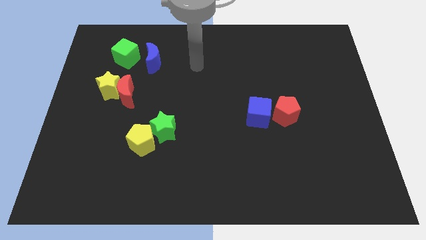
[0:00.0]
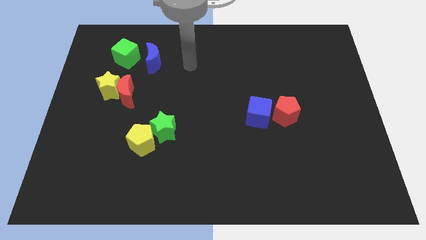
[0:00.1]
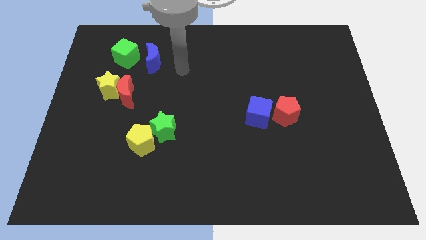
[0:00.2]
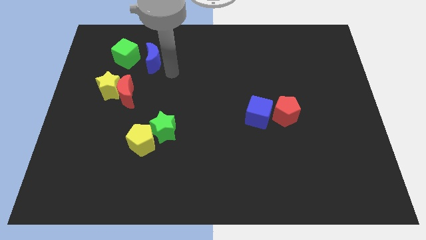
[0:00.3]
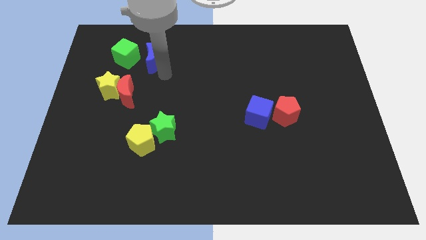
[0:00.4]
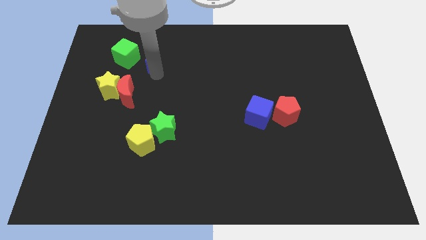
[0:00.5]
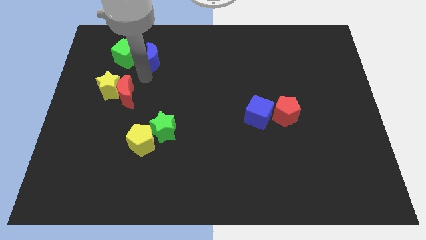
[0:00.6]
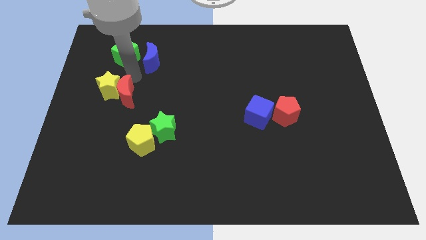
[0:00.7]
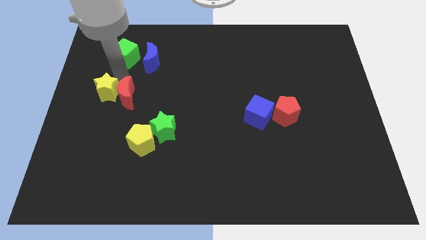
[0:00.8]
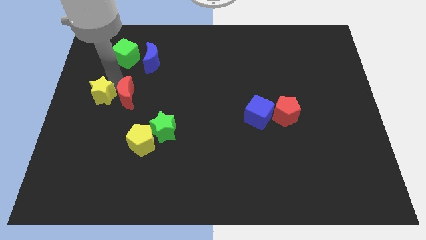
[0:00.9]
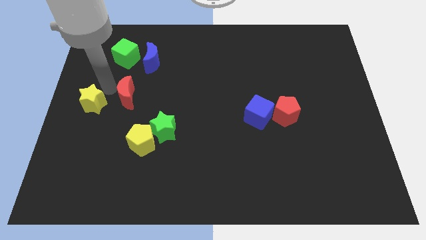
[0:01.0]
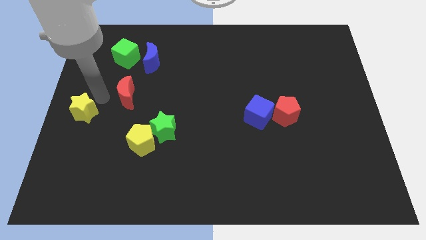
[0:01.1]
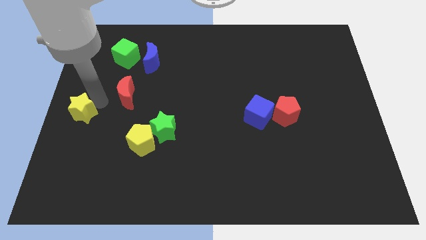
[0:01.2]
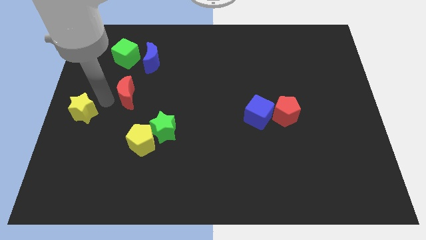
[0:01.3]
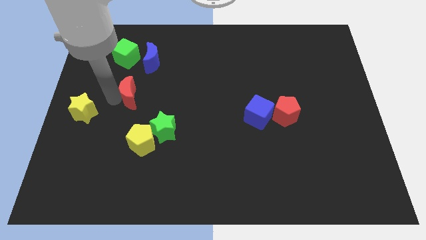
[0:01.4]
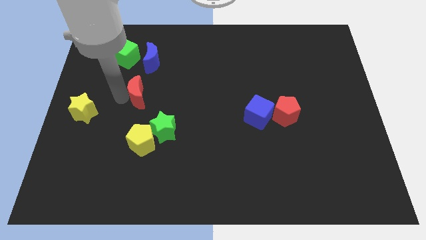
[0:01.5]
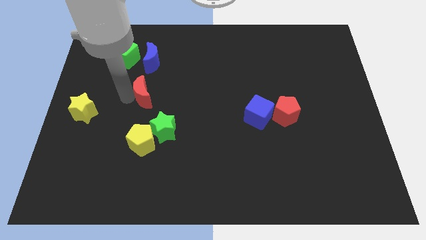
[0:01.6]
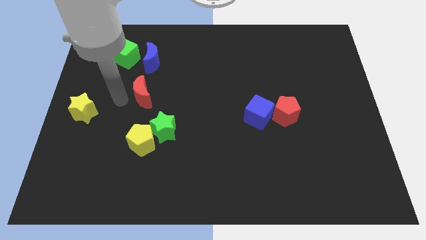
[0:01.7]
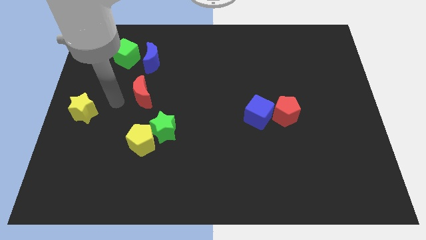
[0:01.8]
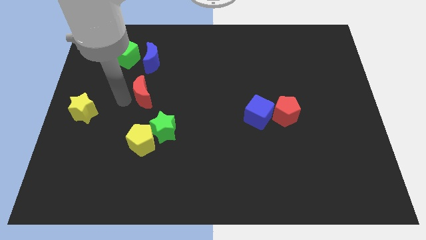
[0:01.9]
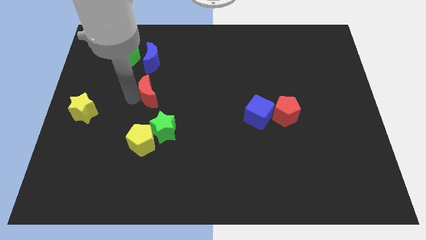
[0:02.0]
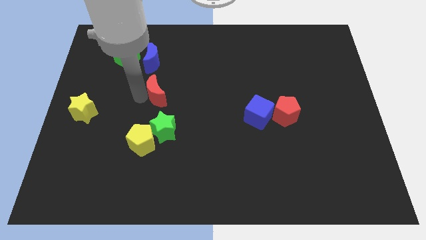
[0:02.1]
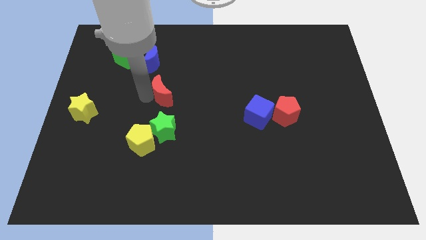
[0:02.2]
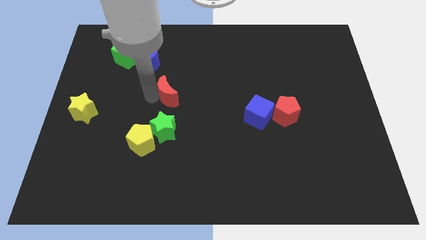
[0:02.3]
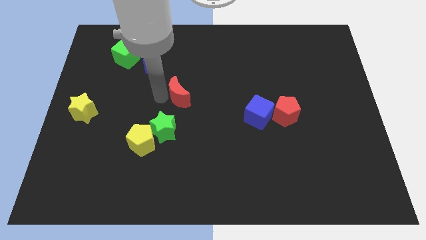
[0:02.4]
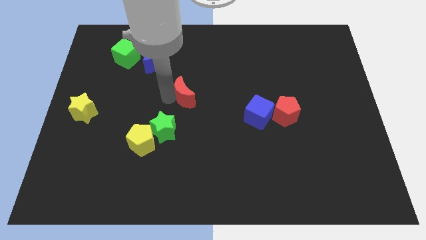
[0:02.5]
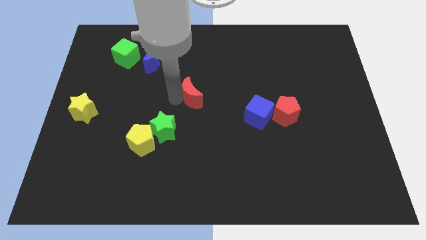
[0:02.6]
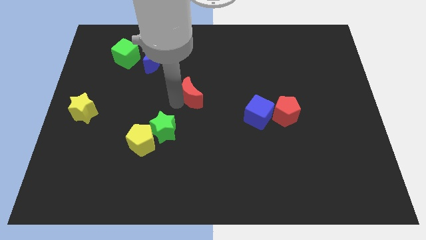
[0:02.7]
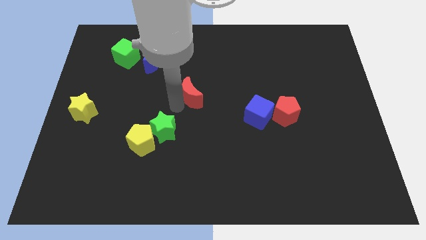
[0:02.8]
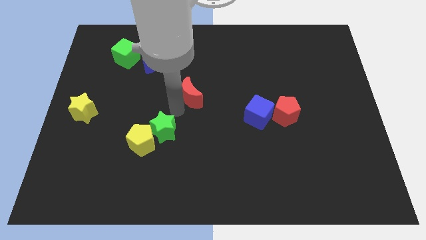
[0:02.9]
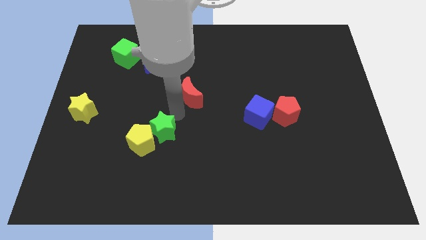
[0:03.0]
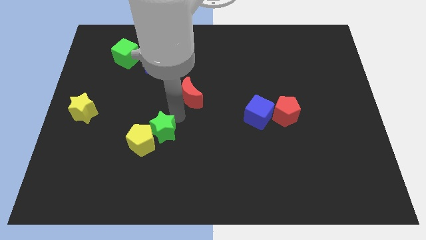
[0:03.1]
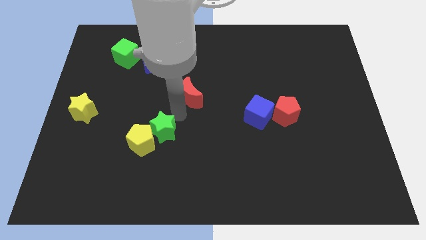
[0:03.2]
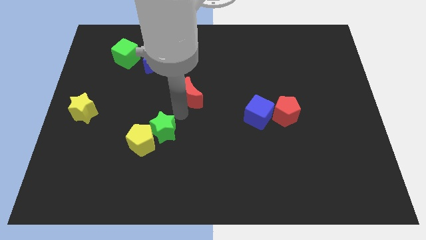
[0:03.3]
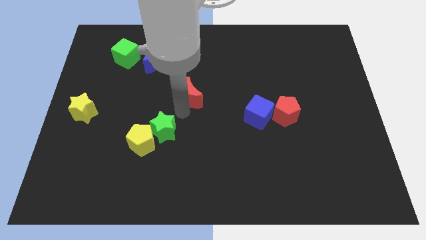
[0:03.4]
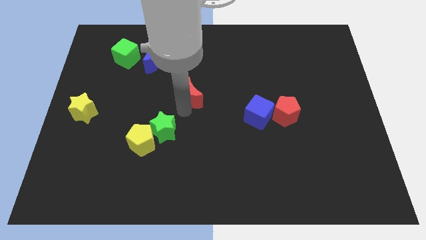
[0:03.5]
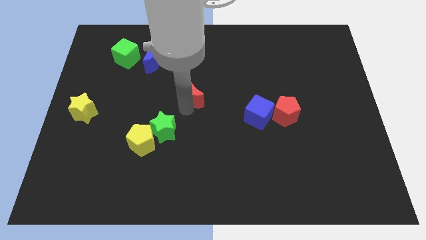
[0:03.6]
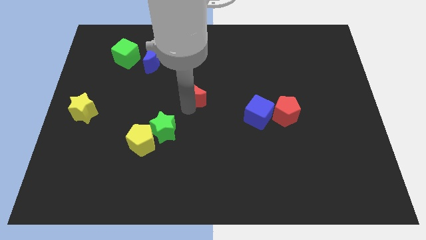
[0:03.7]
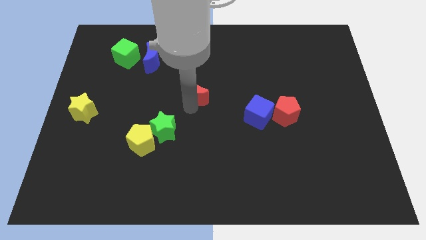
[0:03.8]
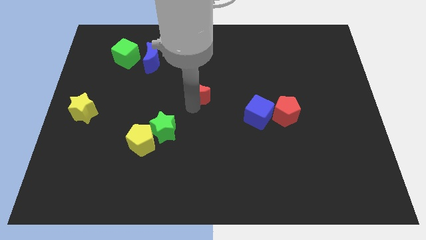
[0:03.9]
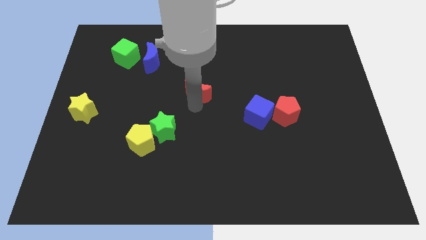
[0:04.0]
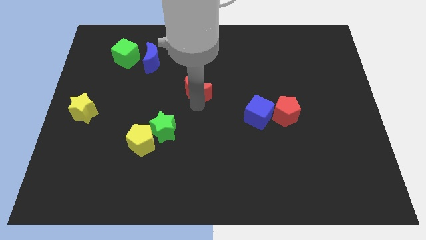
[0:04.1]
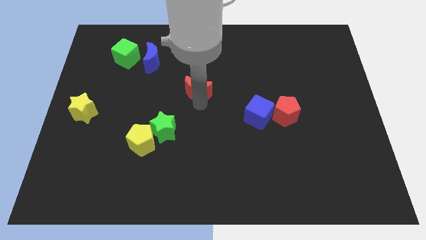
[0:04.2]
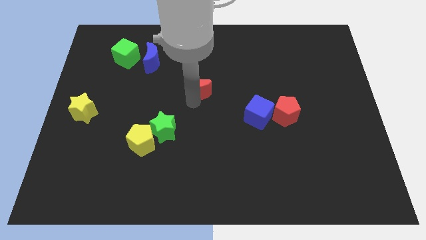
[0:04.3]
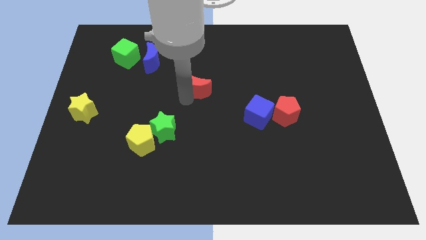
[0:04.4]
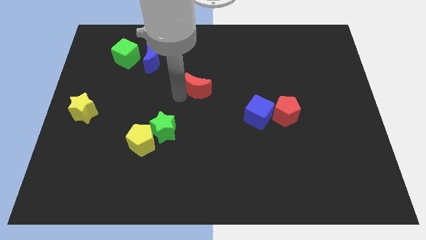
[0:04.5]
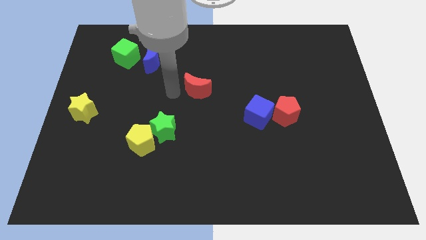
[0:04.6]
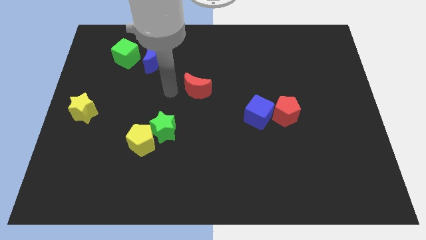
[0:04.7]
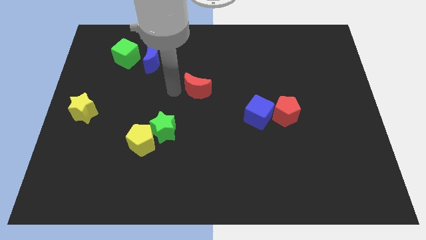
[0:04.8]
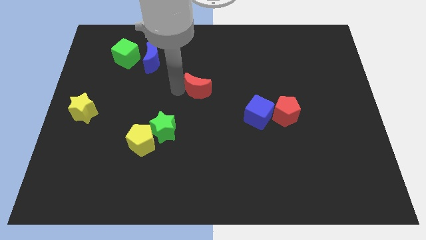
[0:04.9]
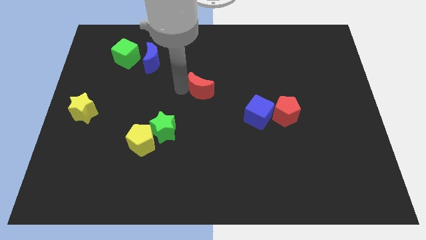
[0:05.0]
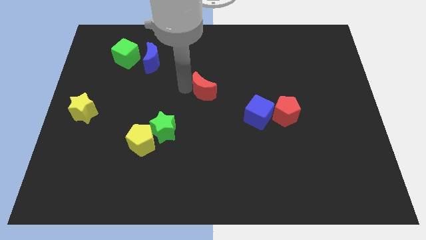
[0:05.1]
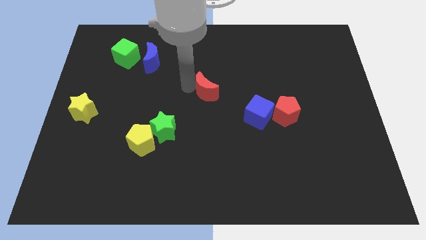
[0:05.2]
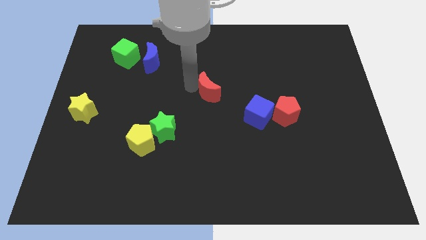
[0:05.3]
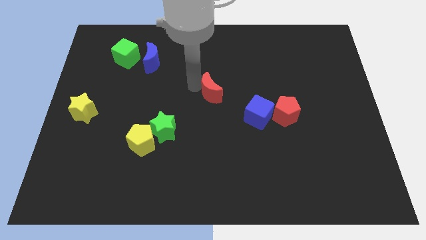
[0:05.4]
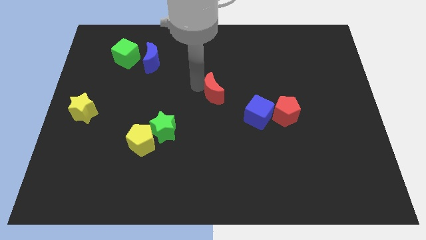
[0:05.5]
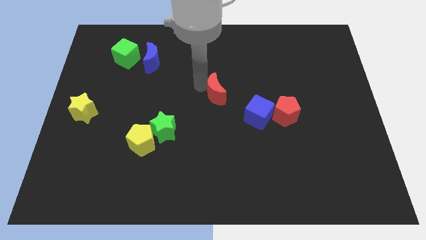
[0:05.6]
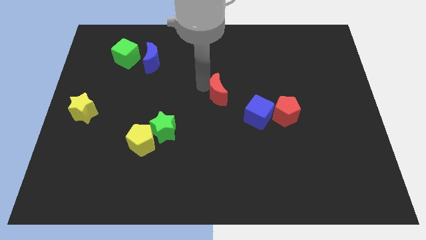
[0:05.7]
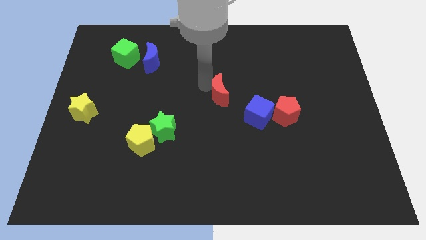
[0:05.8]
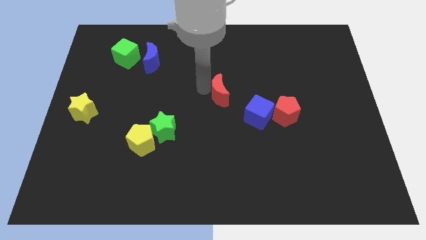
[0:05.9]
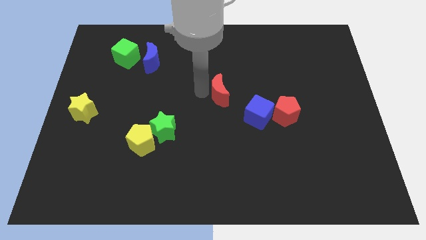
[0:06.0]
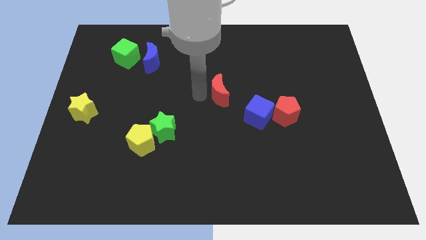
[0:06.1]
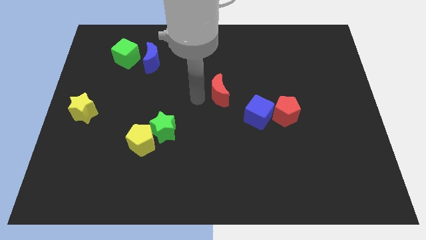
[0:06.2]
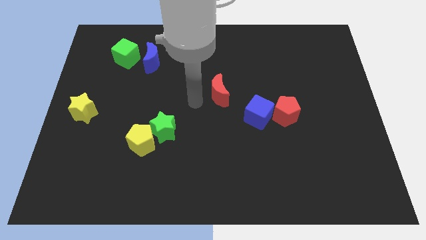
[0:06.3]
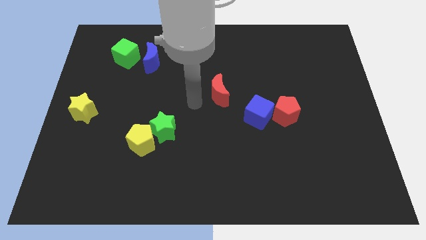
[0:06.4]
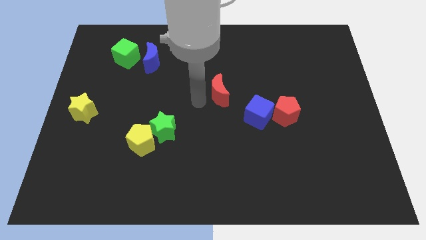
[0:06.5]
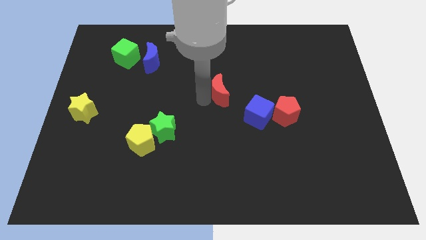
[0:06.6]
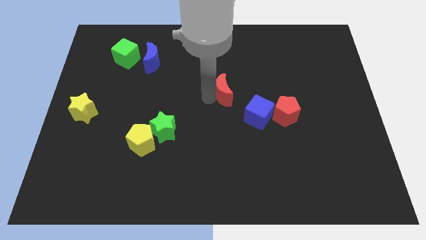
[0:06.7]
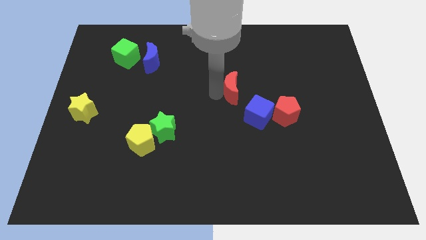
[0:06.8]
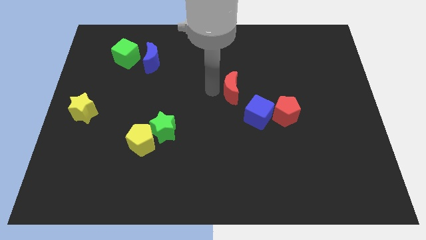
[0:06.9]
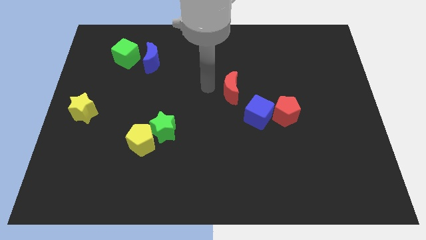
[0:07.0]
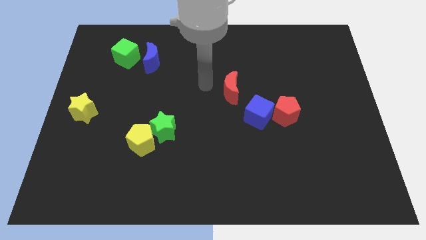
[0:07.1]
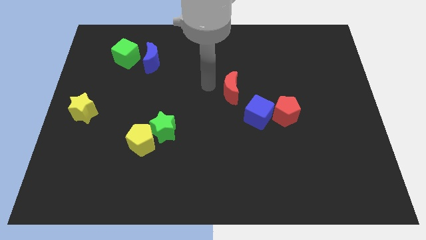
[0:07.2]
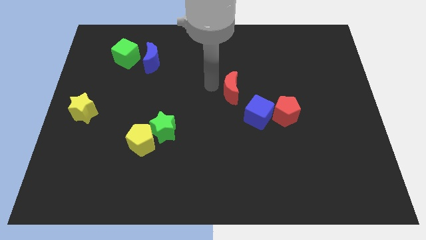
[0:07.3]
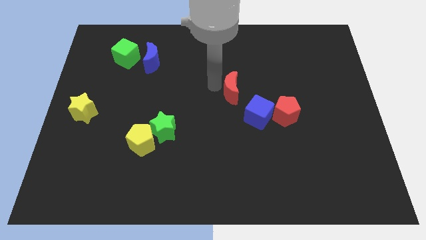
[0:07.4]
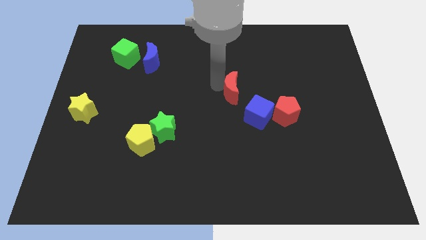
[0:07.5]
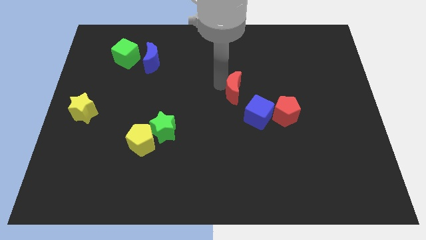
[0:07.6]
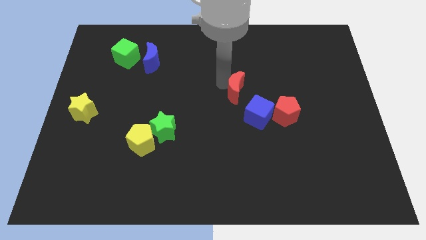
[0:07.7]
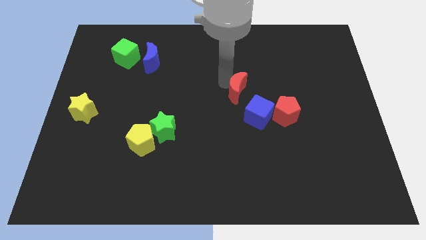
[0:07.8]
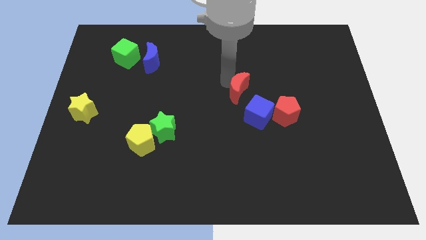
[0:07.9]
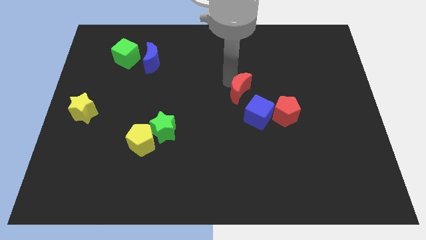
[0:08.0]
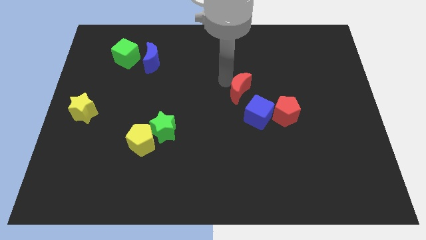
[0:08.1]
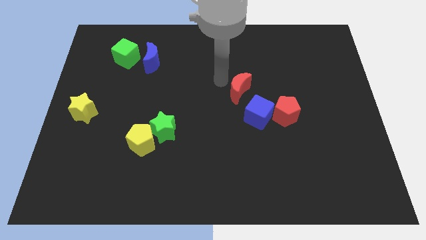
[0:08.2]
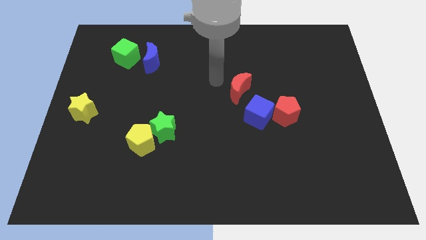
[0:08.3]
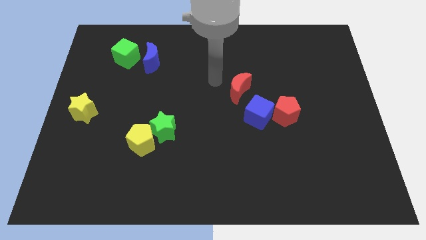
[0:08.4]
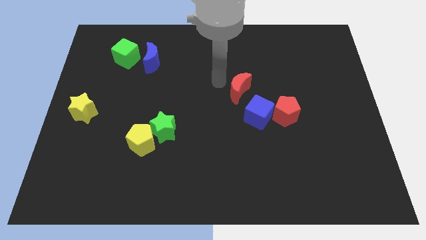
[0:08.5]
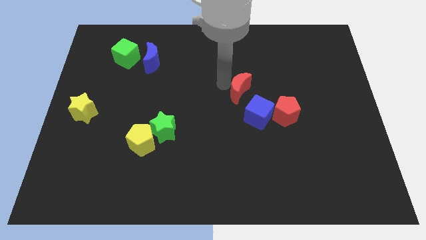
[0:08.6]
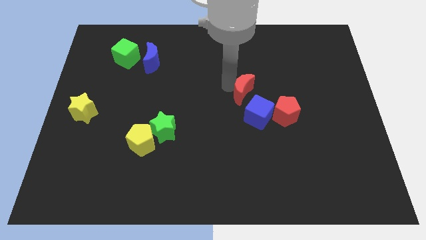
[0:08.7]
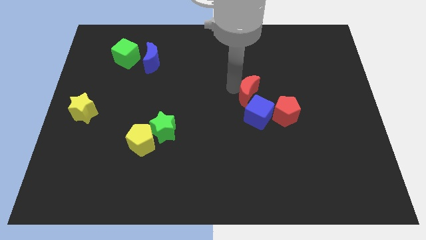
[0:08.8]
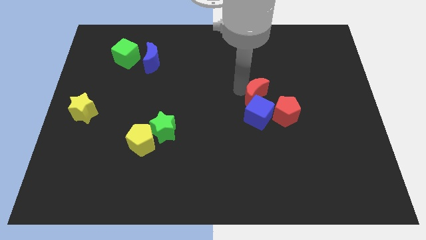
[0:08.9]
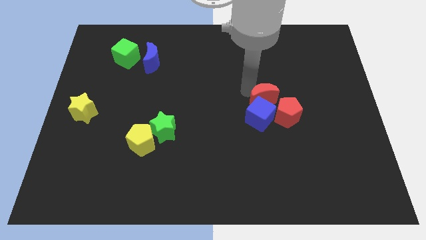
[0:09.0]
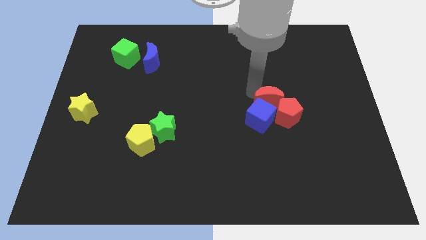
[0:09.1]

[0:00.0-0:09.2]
slide the red moon to the red pentagon
